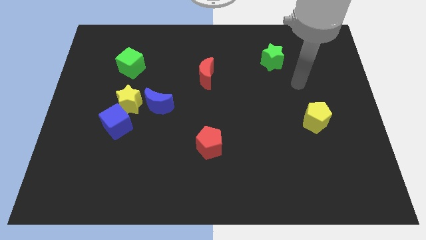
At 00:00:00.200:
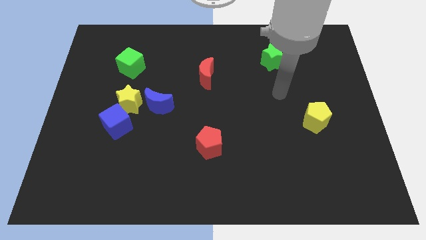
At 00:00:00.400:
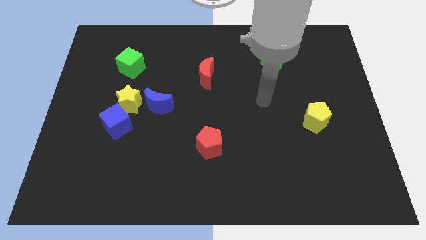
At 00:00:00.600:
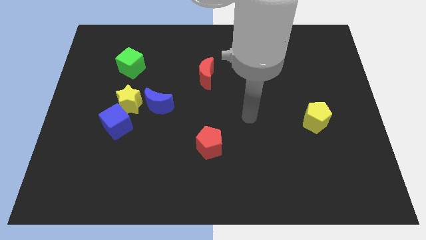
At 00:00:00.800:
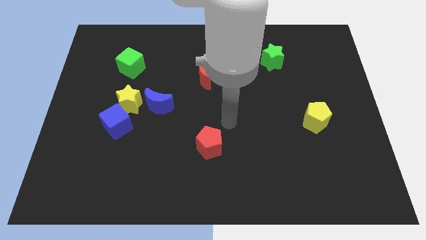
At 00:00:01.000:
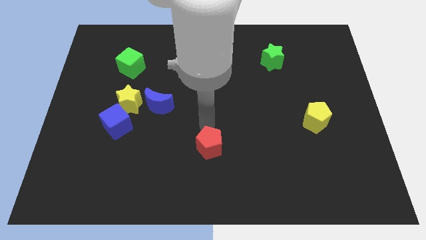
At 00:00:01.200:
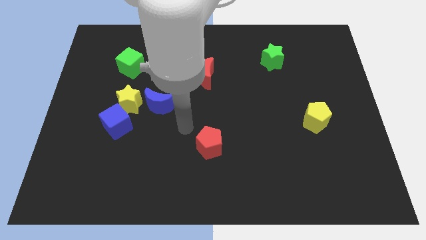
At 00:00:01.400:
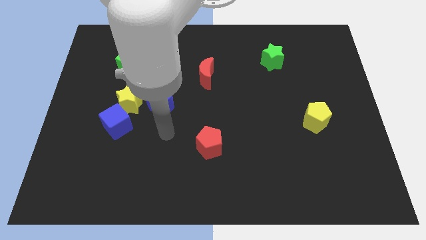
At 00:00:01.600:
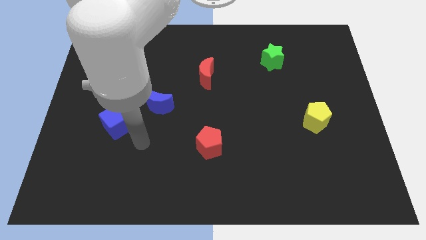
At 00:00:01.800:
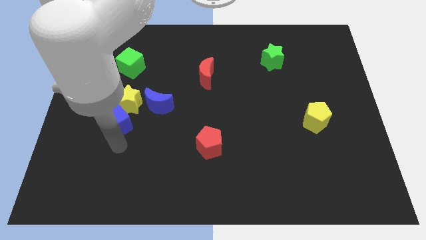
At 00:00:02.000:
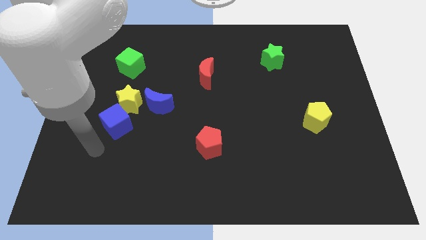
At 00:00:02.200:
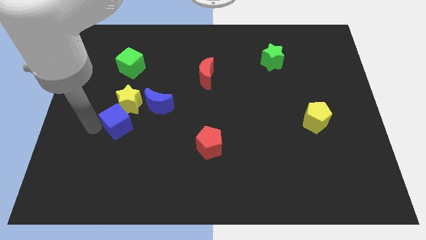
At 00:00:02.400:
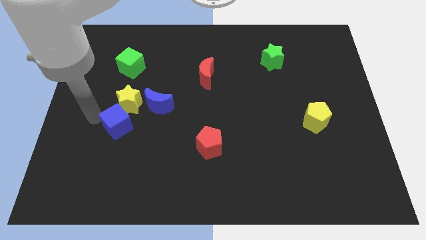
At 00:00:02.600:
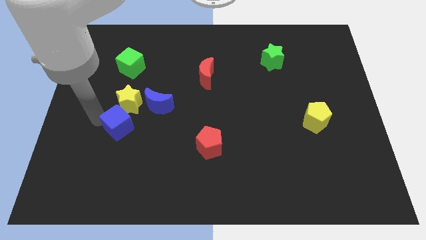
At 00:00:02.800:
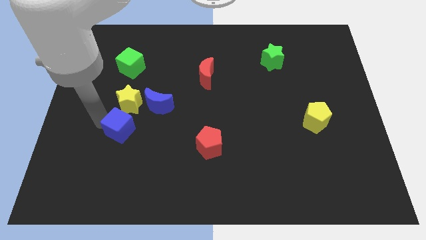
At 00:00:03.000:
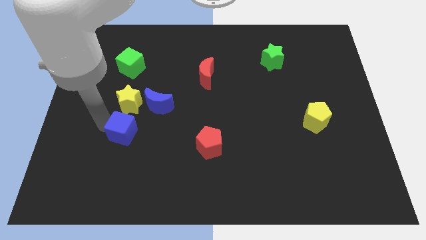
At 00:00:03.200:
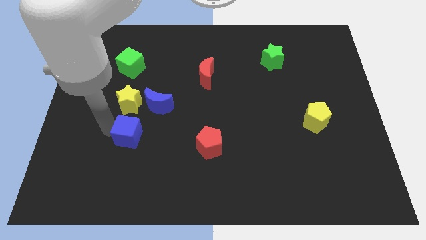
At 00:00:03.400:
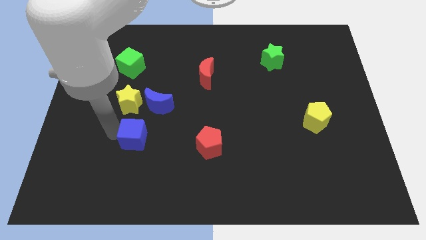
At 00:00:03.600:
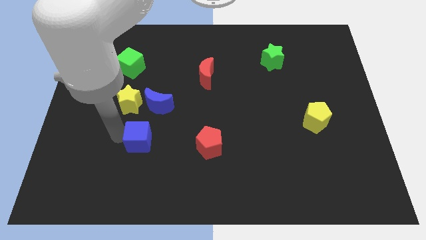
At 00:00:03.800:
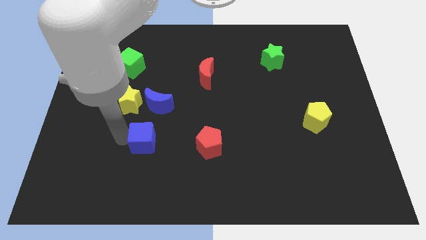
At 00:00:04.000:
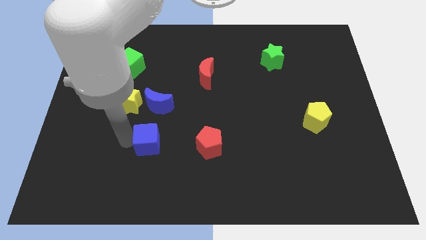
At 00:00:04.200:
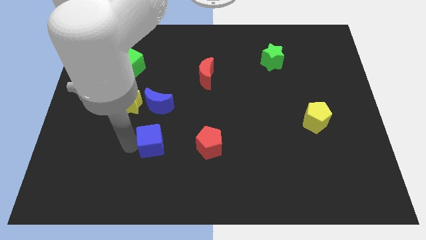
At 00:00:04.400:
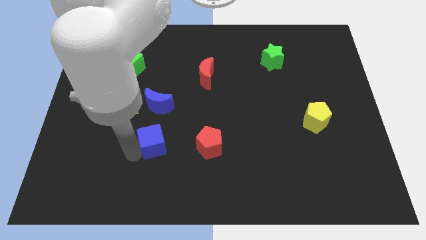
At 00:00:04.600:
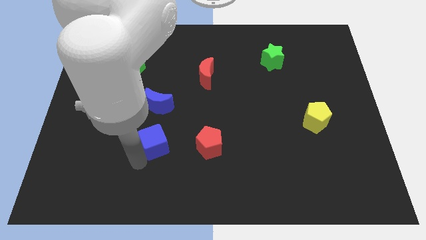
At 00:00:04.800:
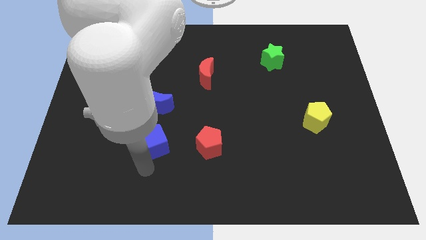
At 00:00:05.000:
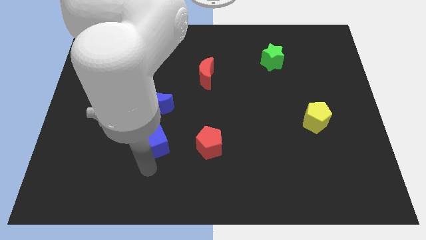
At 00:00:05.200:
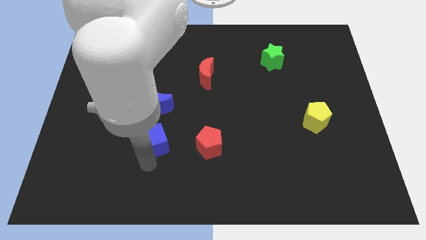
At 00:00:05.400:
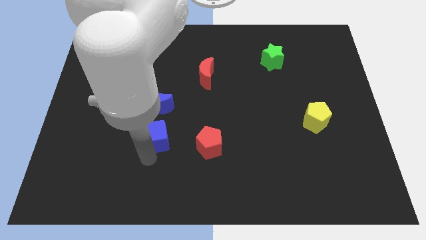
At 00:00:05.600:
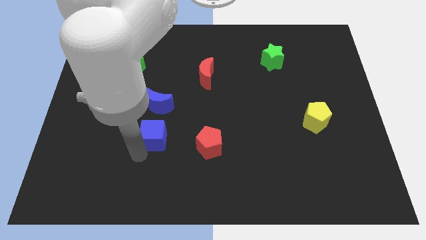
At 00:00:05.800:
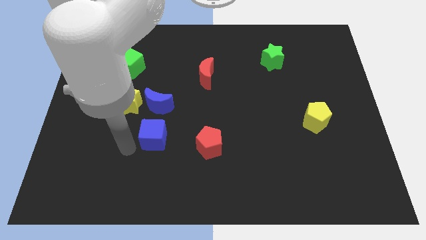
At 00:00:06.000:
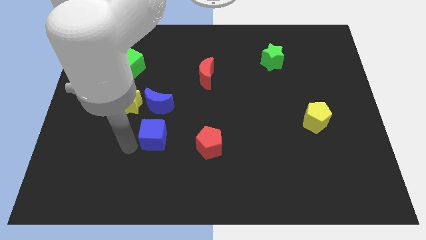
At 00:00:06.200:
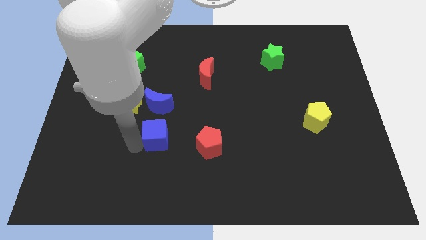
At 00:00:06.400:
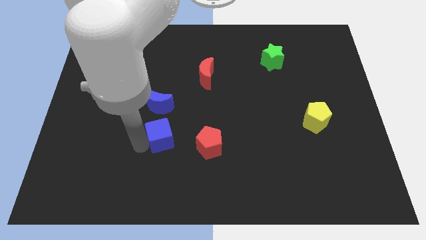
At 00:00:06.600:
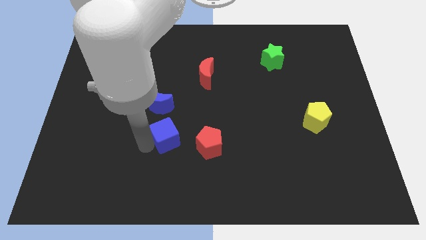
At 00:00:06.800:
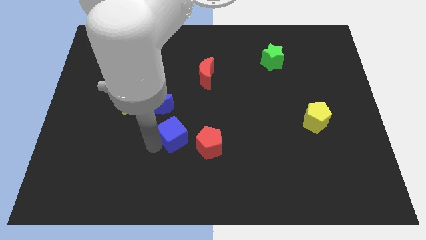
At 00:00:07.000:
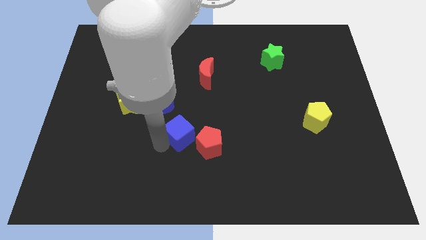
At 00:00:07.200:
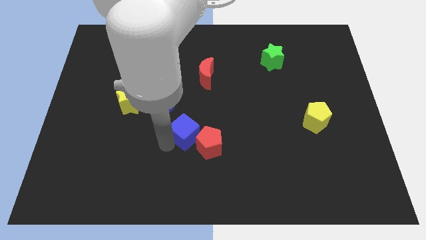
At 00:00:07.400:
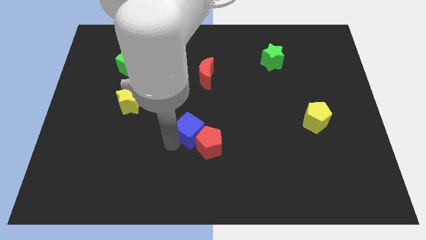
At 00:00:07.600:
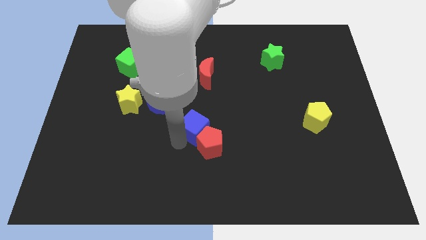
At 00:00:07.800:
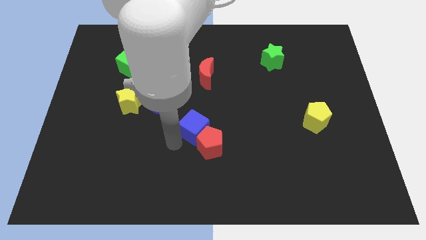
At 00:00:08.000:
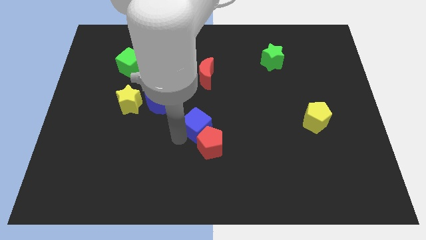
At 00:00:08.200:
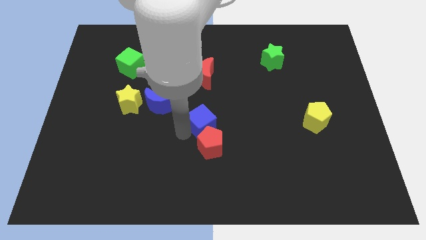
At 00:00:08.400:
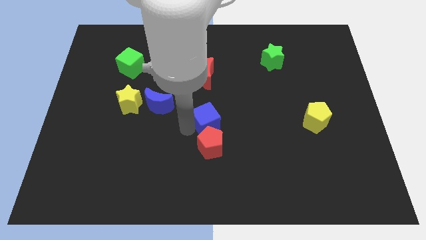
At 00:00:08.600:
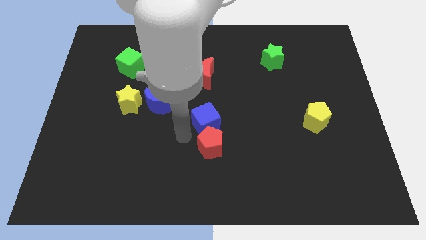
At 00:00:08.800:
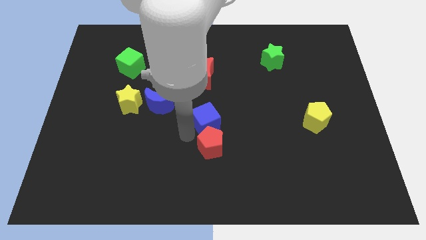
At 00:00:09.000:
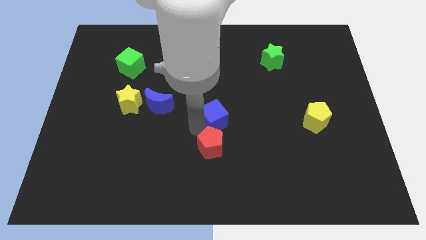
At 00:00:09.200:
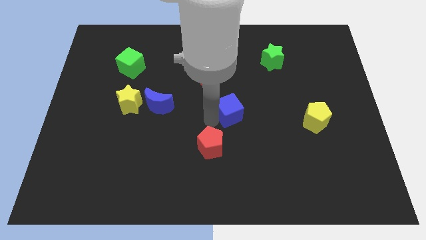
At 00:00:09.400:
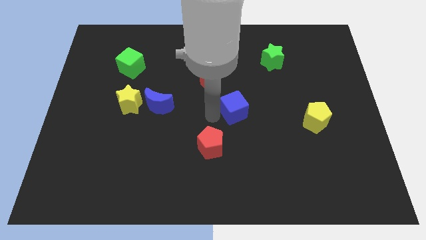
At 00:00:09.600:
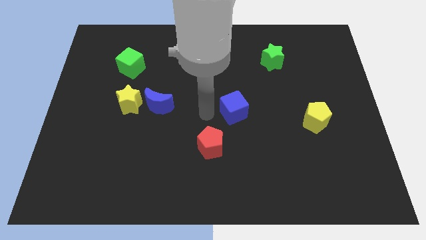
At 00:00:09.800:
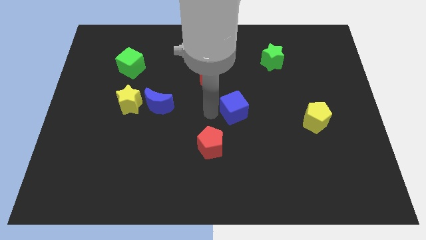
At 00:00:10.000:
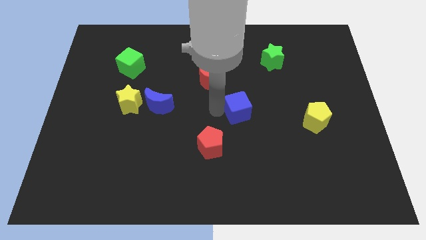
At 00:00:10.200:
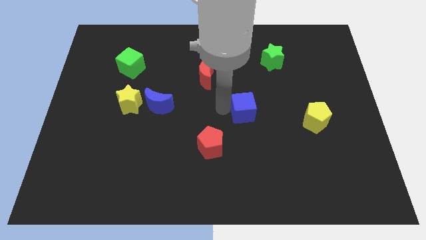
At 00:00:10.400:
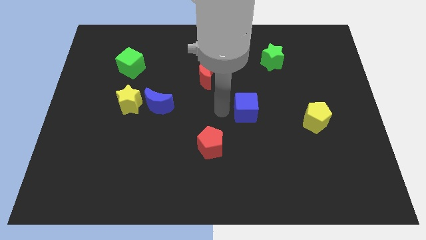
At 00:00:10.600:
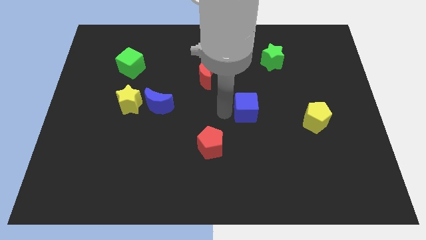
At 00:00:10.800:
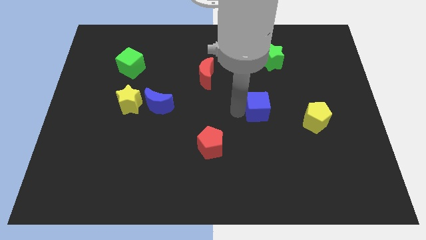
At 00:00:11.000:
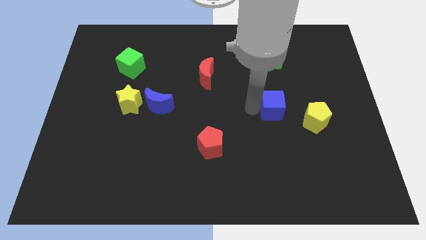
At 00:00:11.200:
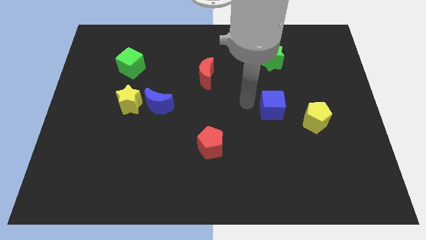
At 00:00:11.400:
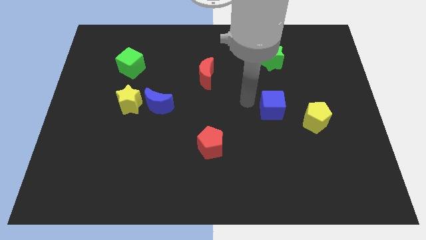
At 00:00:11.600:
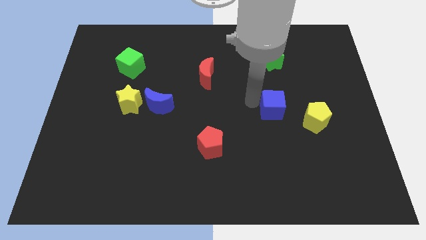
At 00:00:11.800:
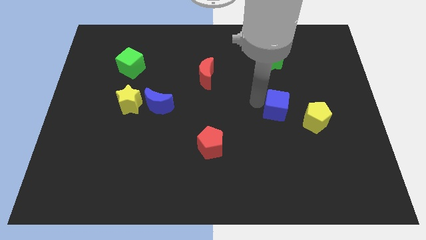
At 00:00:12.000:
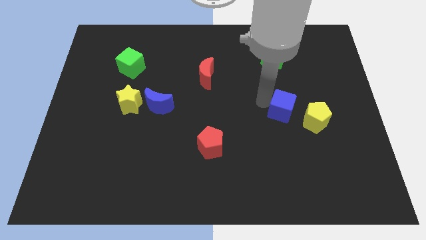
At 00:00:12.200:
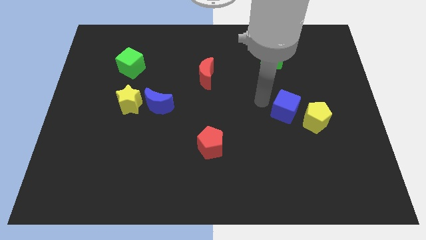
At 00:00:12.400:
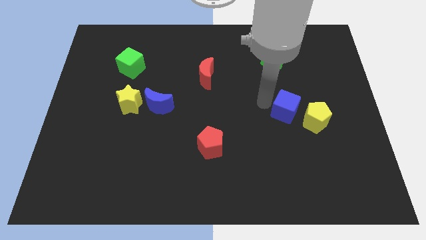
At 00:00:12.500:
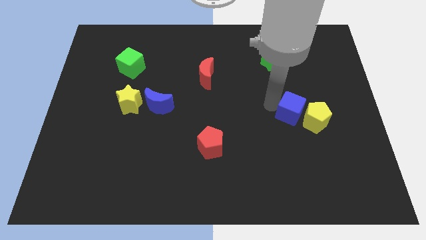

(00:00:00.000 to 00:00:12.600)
move the blue cube close to the yellow pentagon

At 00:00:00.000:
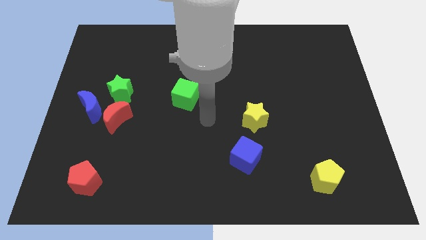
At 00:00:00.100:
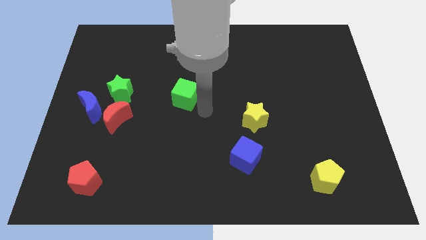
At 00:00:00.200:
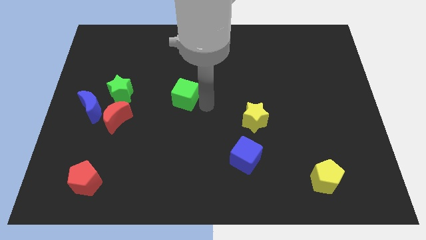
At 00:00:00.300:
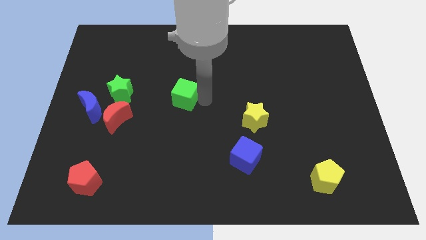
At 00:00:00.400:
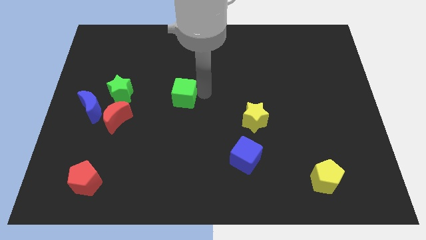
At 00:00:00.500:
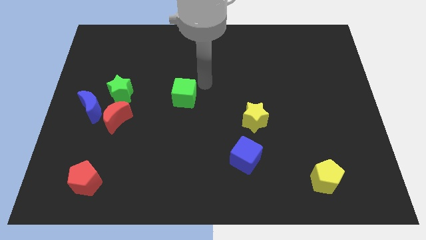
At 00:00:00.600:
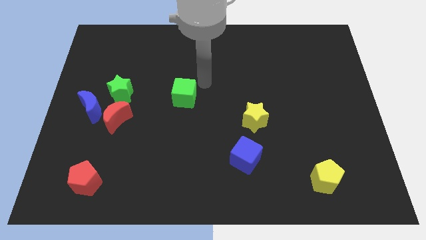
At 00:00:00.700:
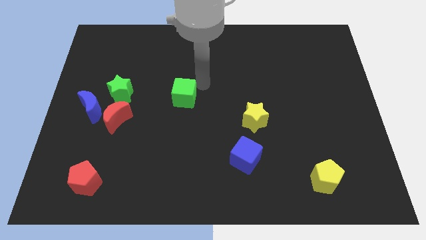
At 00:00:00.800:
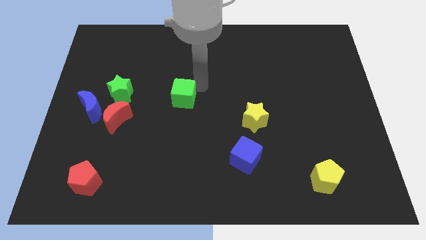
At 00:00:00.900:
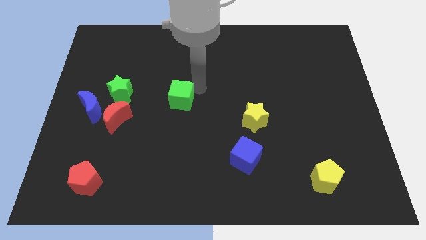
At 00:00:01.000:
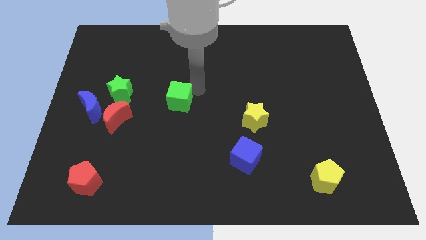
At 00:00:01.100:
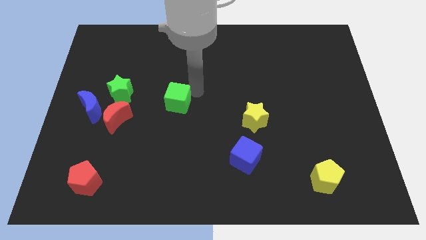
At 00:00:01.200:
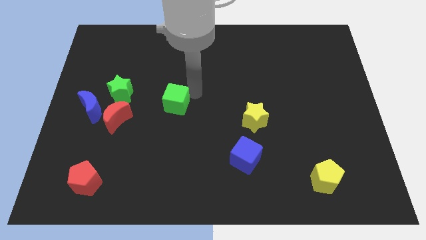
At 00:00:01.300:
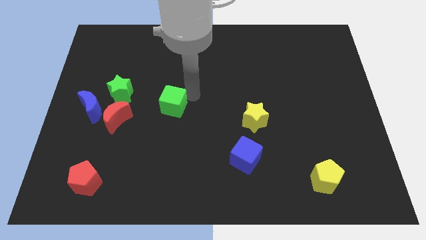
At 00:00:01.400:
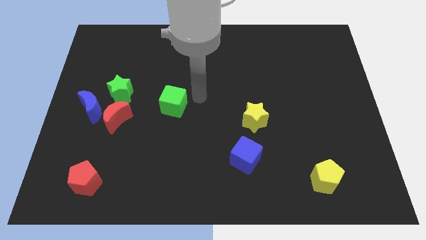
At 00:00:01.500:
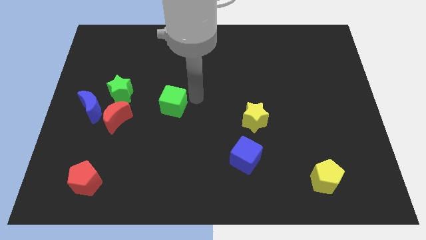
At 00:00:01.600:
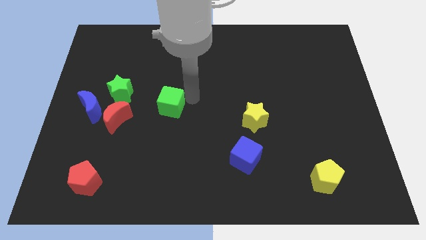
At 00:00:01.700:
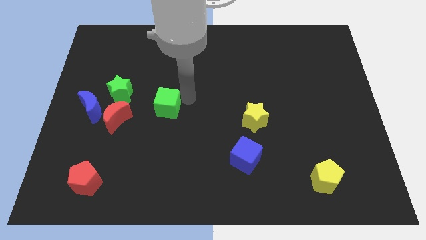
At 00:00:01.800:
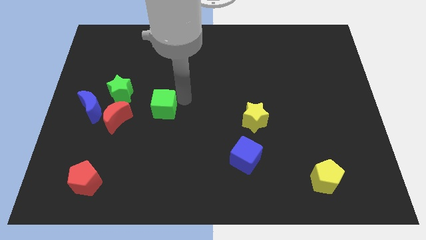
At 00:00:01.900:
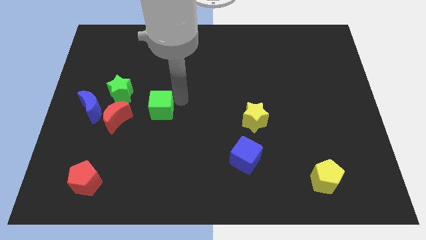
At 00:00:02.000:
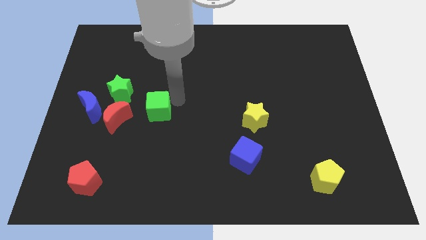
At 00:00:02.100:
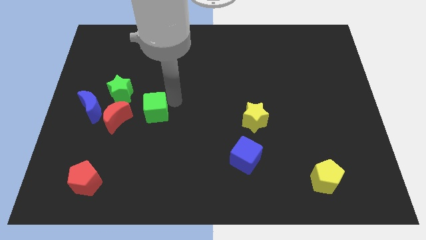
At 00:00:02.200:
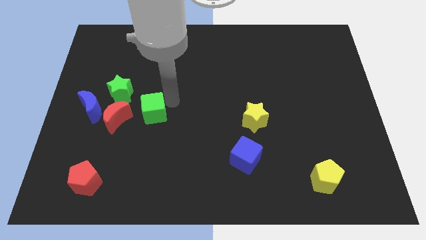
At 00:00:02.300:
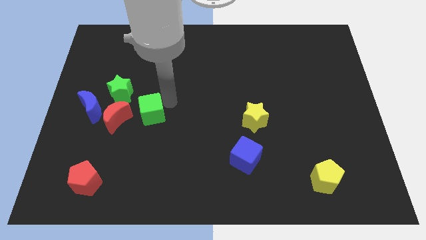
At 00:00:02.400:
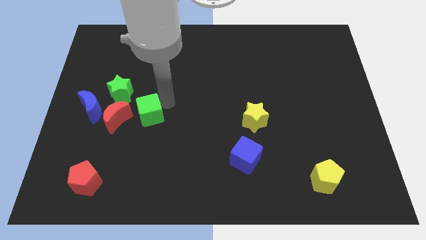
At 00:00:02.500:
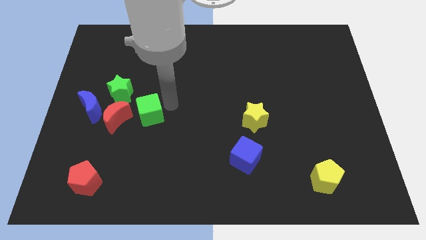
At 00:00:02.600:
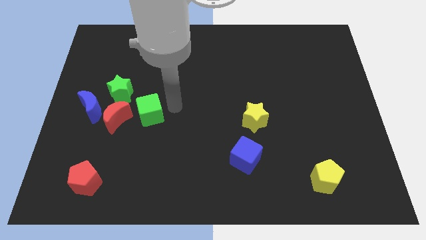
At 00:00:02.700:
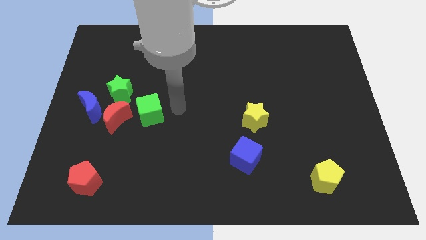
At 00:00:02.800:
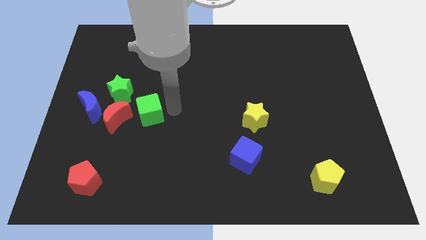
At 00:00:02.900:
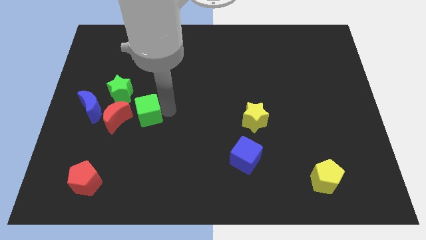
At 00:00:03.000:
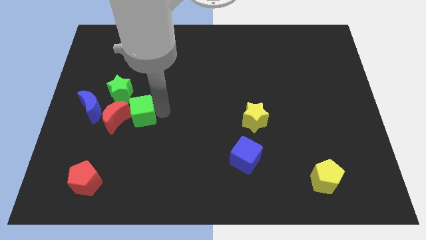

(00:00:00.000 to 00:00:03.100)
push the green cube next to the red moon
